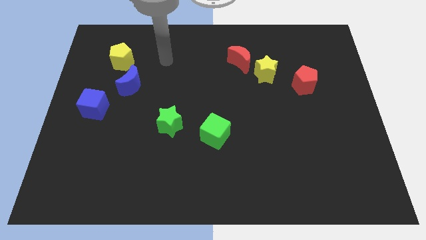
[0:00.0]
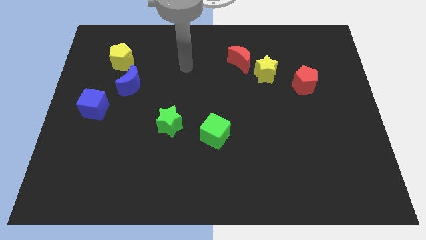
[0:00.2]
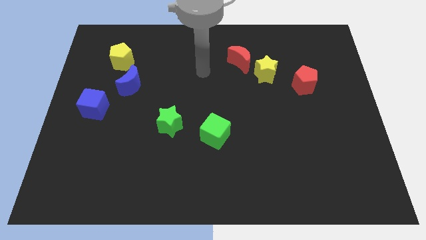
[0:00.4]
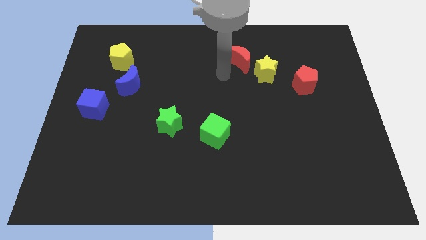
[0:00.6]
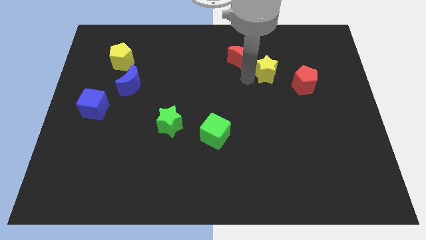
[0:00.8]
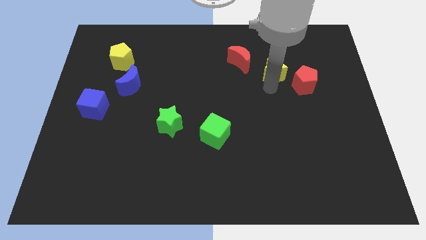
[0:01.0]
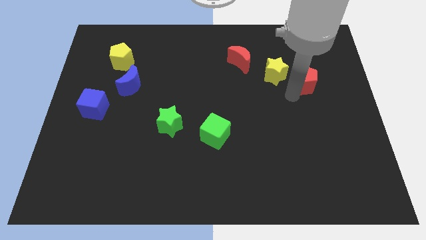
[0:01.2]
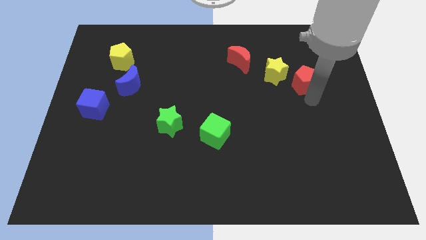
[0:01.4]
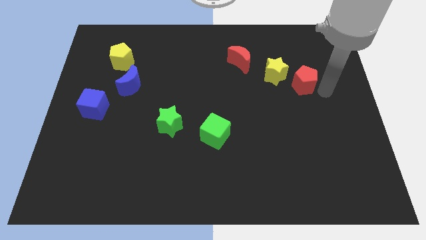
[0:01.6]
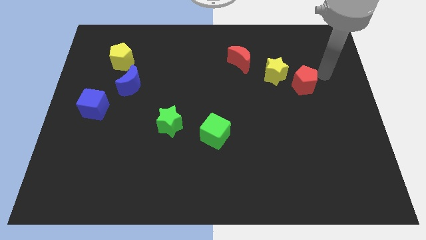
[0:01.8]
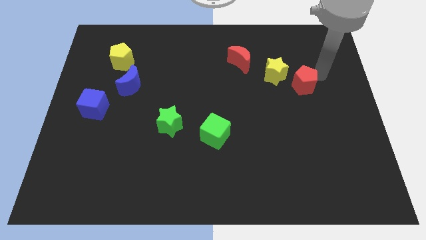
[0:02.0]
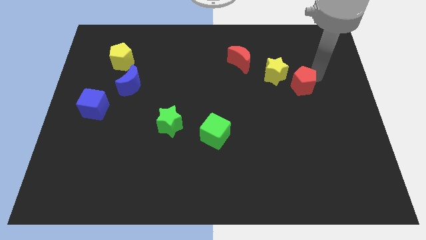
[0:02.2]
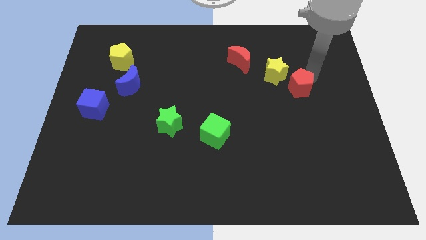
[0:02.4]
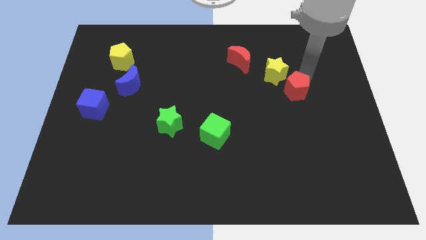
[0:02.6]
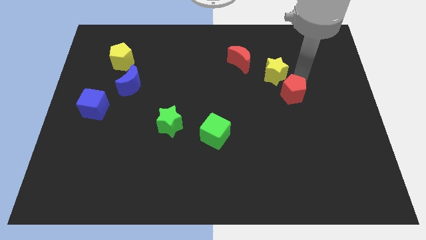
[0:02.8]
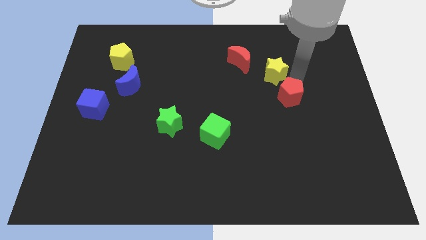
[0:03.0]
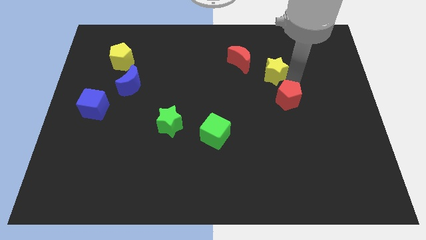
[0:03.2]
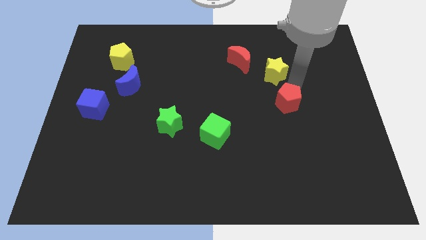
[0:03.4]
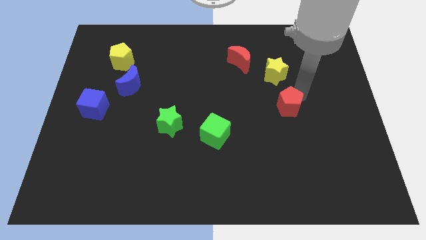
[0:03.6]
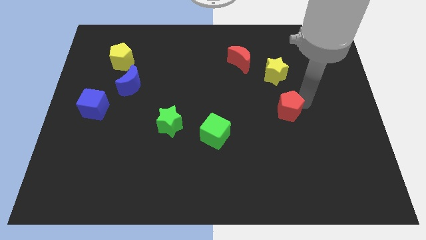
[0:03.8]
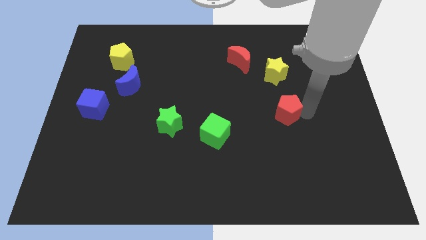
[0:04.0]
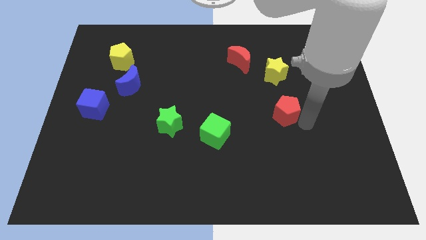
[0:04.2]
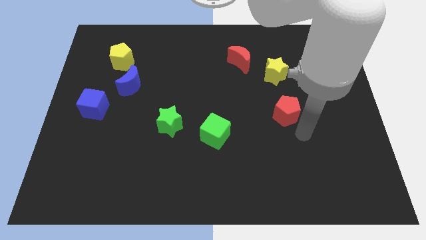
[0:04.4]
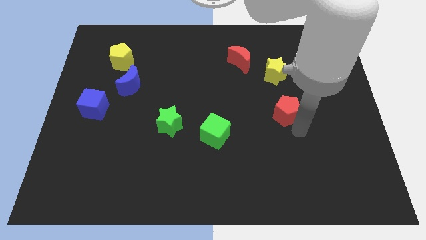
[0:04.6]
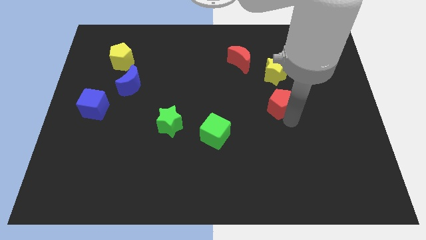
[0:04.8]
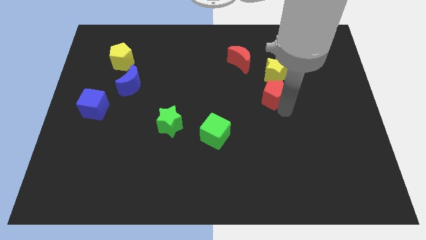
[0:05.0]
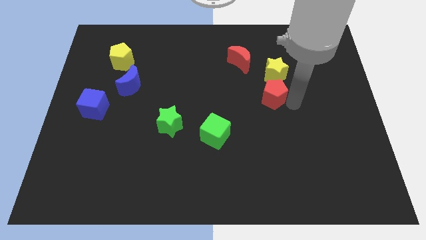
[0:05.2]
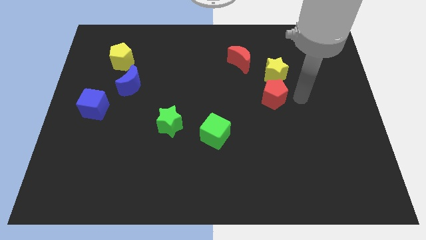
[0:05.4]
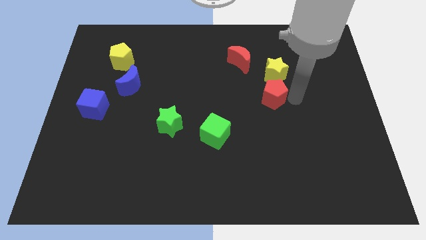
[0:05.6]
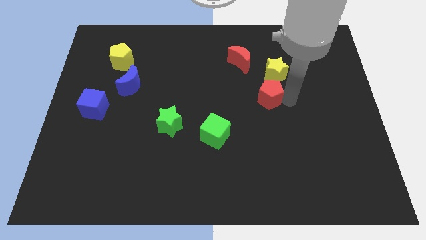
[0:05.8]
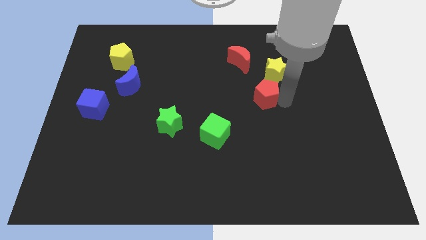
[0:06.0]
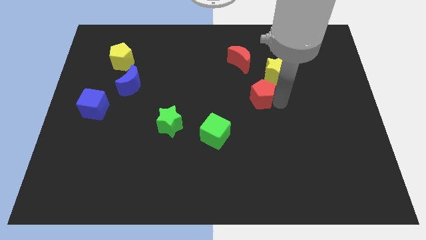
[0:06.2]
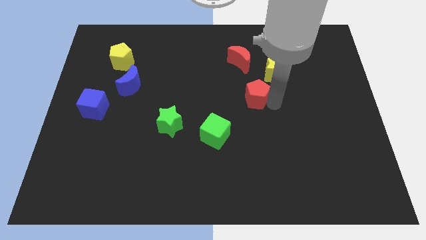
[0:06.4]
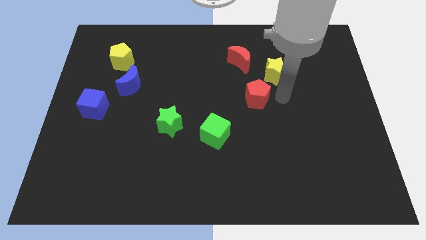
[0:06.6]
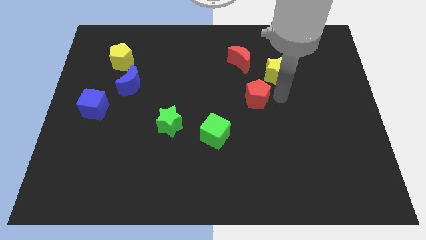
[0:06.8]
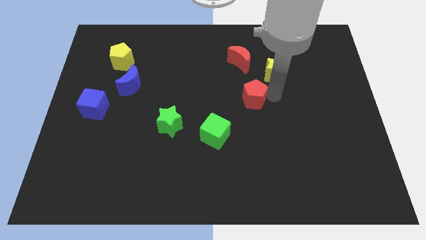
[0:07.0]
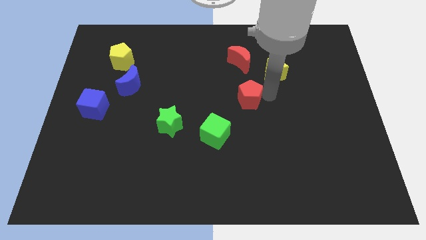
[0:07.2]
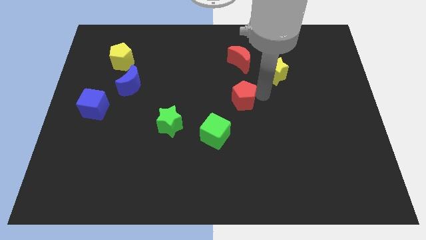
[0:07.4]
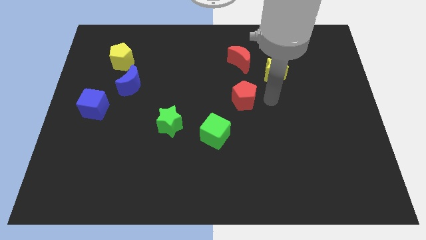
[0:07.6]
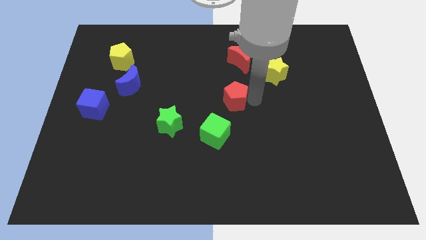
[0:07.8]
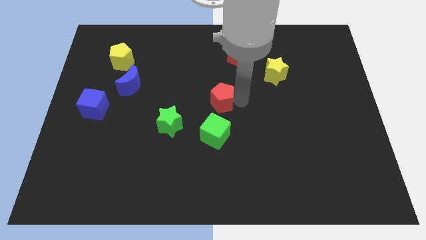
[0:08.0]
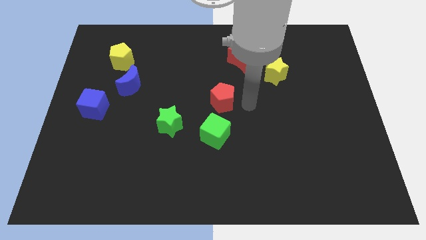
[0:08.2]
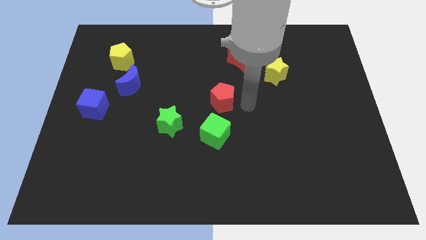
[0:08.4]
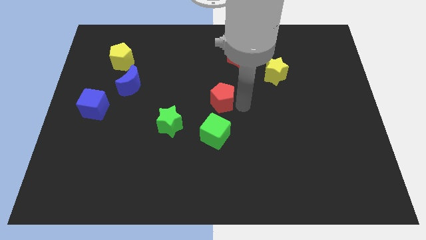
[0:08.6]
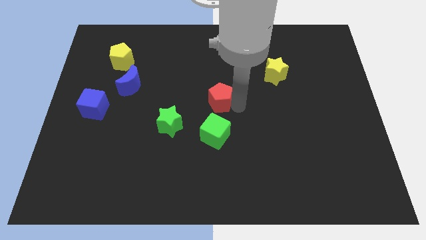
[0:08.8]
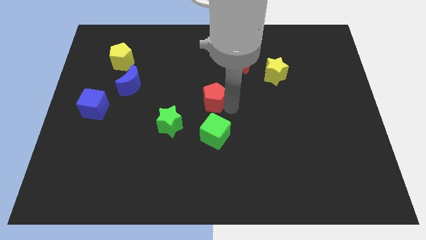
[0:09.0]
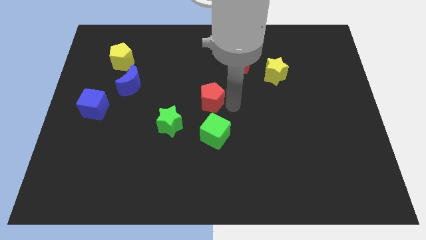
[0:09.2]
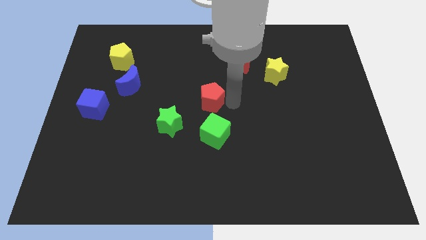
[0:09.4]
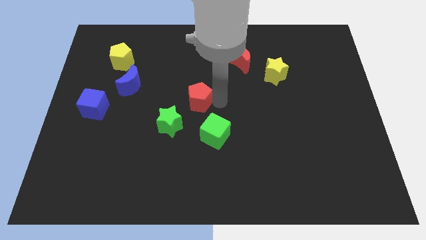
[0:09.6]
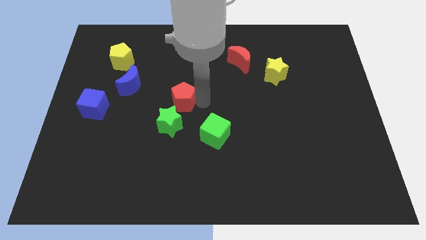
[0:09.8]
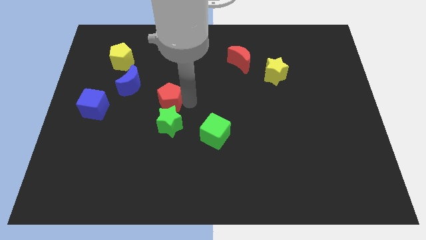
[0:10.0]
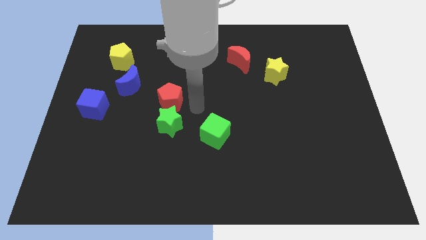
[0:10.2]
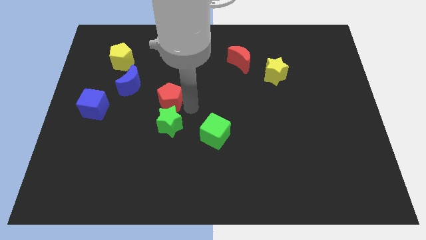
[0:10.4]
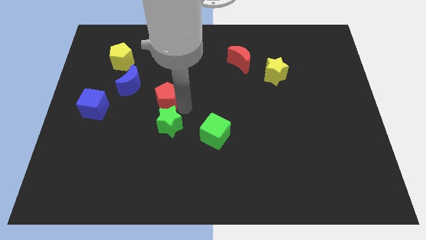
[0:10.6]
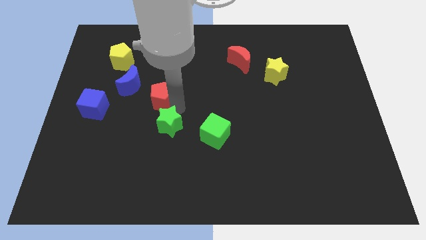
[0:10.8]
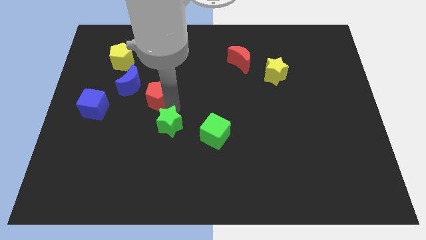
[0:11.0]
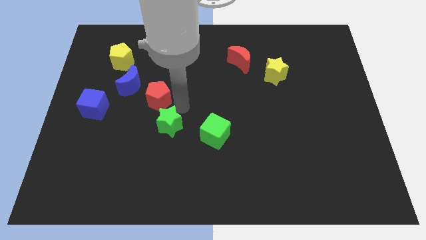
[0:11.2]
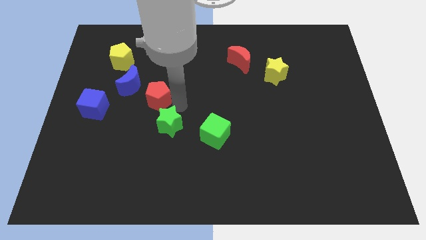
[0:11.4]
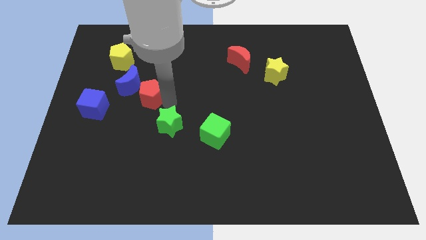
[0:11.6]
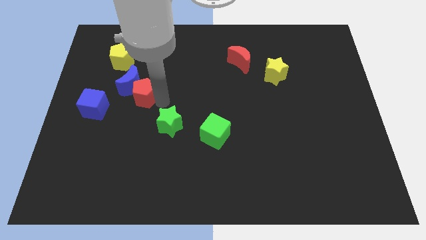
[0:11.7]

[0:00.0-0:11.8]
put the red pentagon to the blue moon

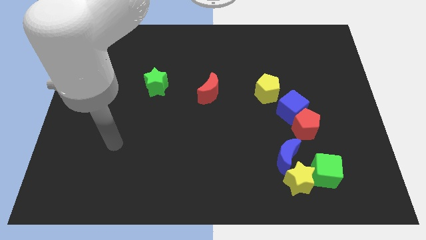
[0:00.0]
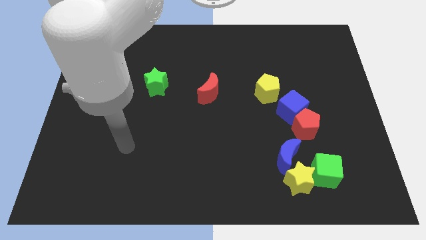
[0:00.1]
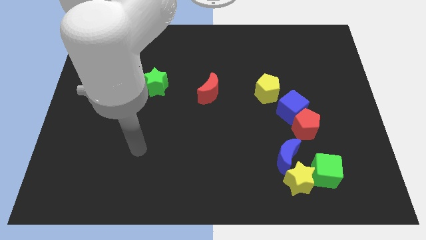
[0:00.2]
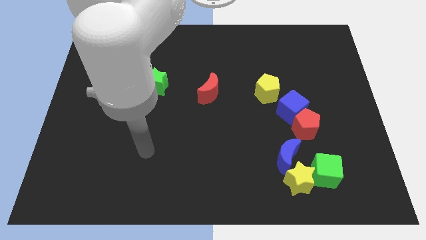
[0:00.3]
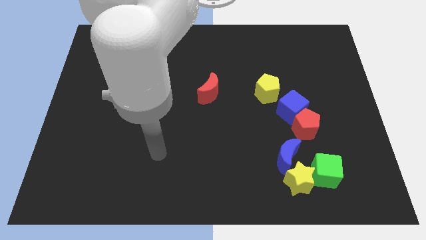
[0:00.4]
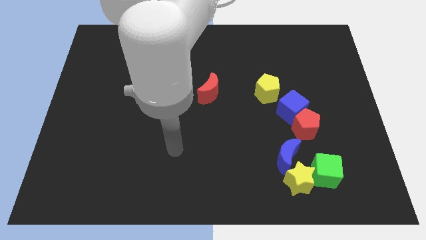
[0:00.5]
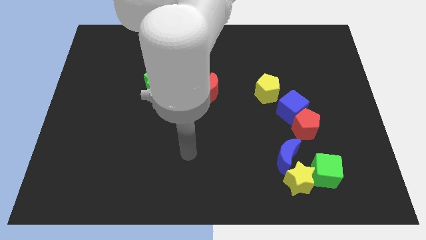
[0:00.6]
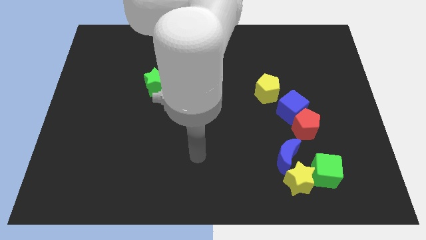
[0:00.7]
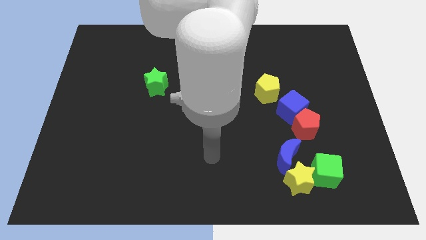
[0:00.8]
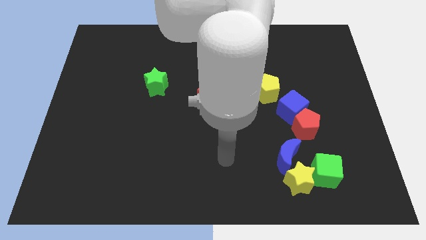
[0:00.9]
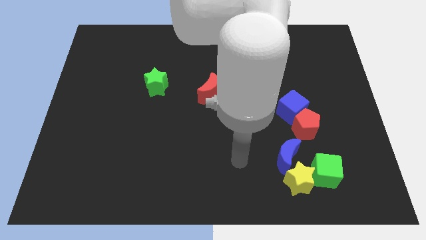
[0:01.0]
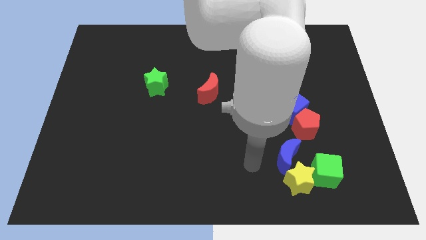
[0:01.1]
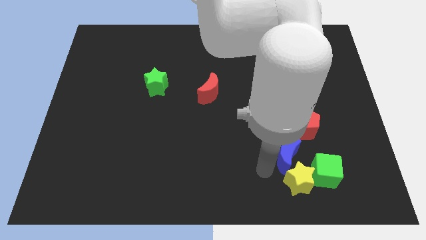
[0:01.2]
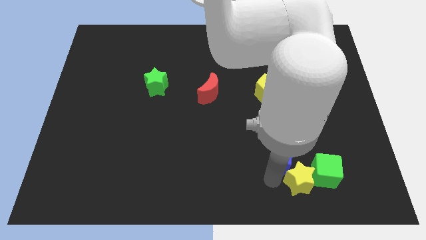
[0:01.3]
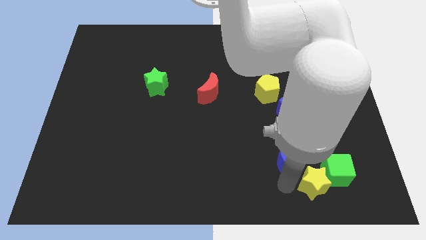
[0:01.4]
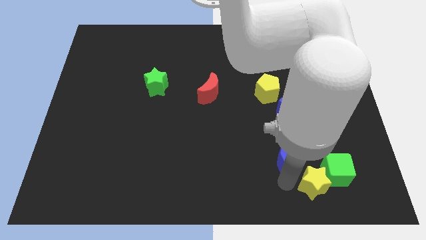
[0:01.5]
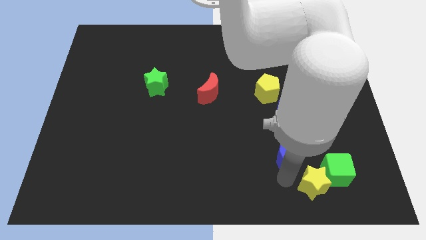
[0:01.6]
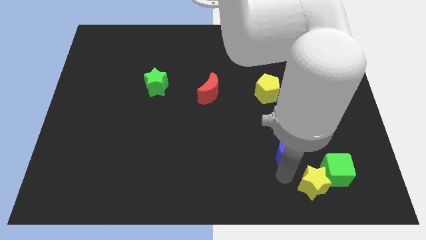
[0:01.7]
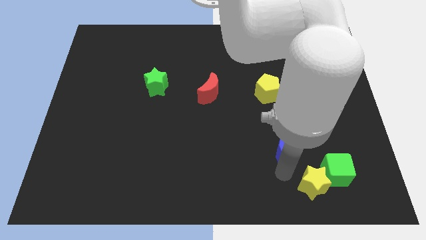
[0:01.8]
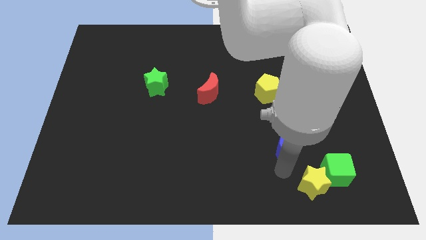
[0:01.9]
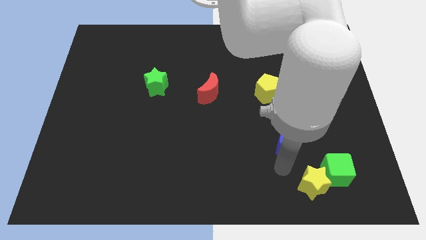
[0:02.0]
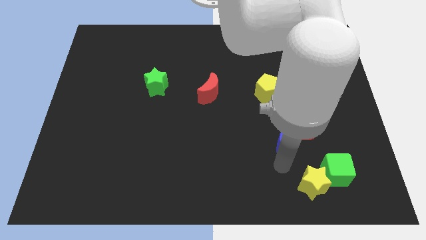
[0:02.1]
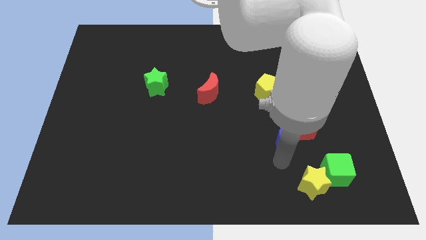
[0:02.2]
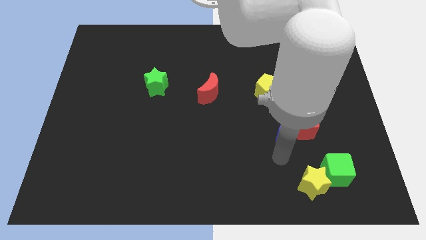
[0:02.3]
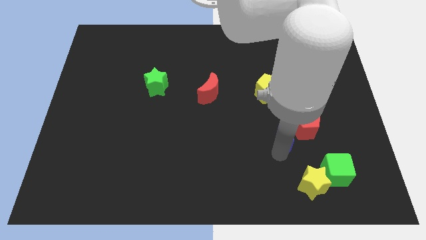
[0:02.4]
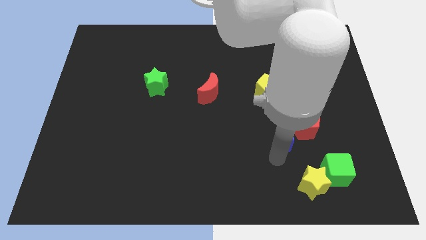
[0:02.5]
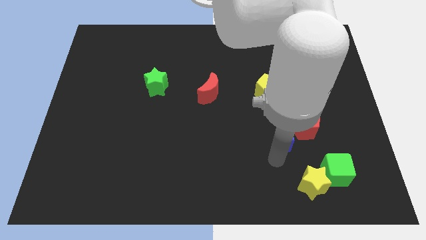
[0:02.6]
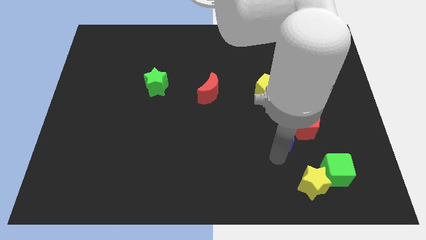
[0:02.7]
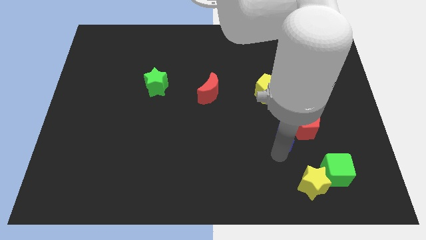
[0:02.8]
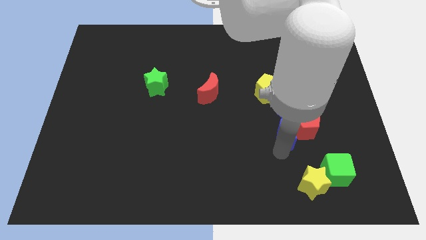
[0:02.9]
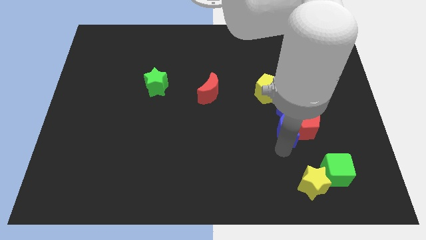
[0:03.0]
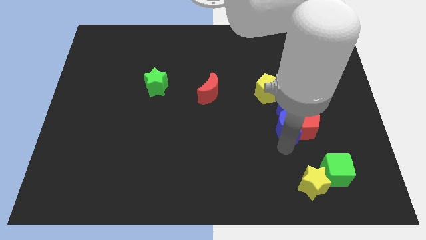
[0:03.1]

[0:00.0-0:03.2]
slide the blue moon towards the blue cube
